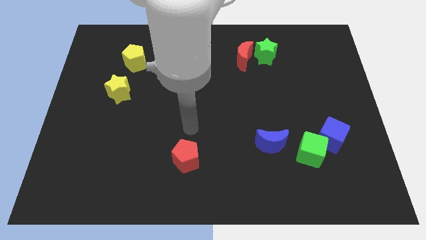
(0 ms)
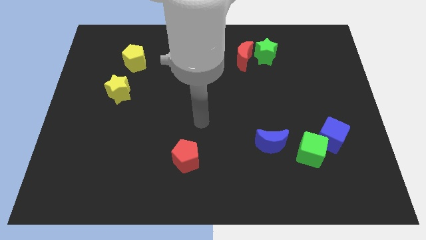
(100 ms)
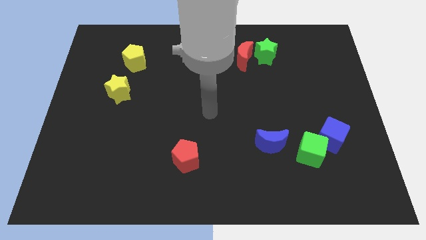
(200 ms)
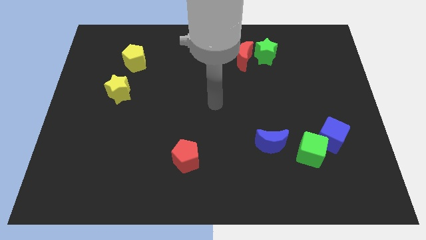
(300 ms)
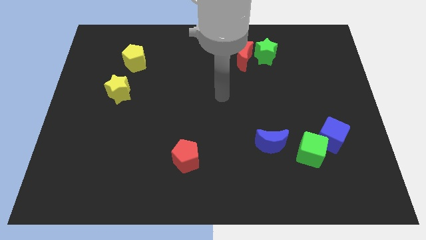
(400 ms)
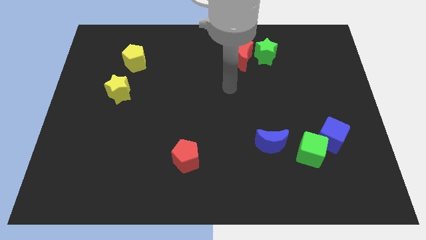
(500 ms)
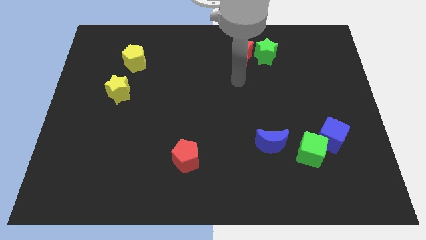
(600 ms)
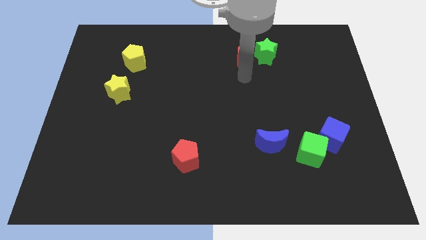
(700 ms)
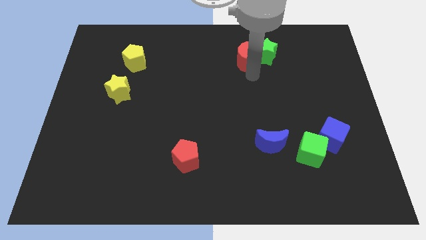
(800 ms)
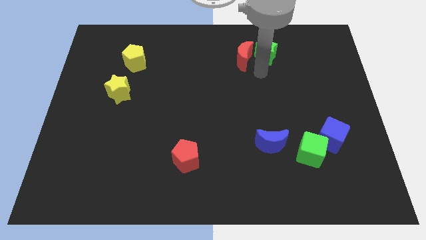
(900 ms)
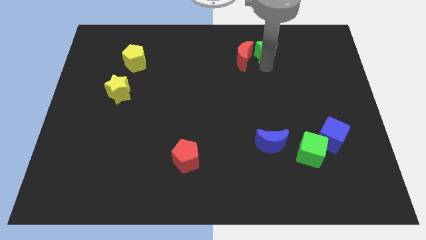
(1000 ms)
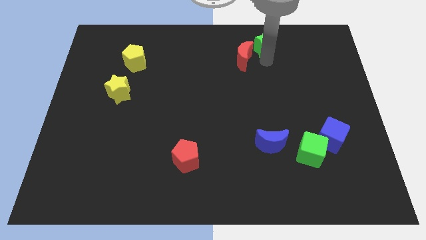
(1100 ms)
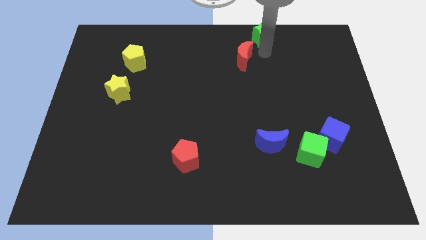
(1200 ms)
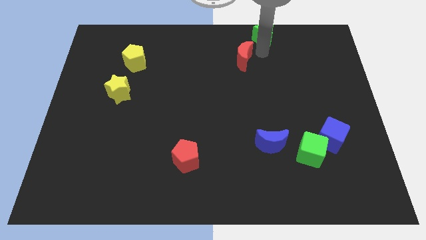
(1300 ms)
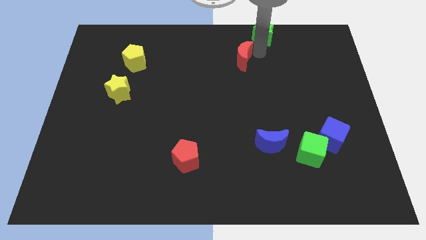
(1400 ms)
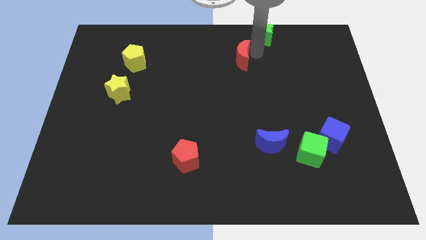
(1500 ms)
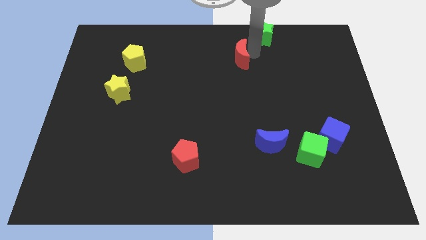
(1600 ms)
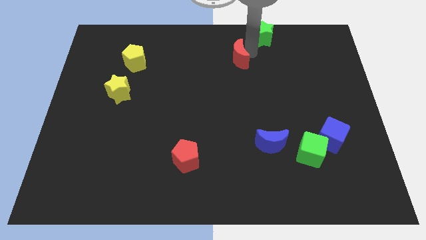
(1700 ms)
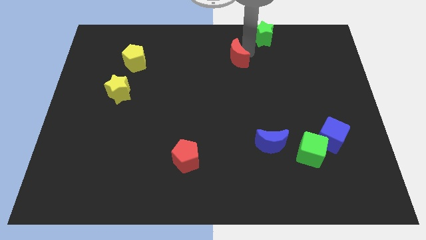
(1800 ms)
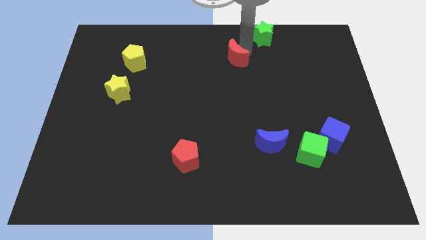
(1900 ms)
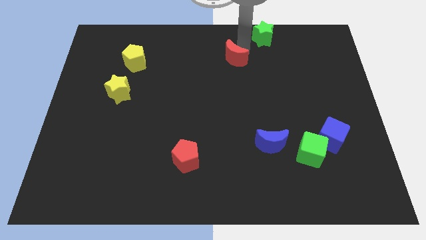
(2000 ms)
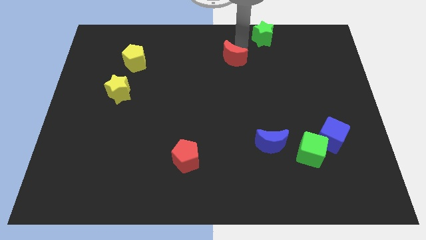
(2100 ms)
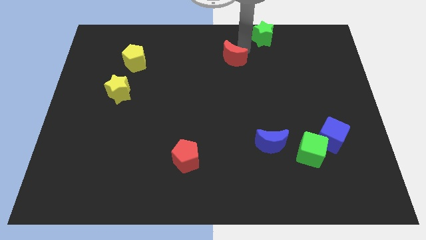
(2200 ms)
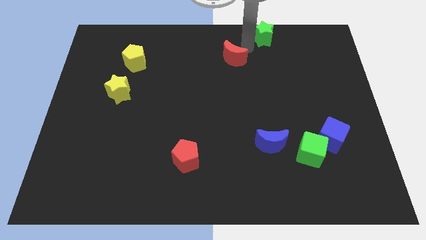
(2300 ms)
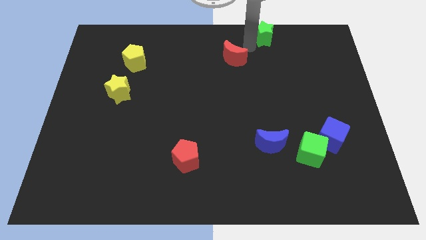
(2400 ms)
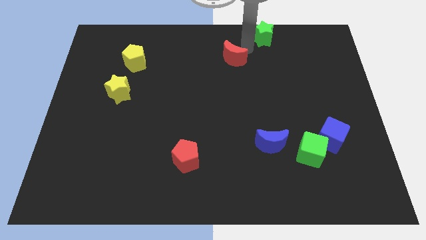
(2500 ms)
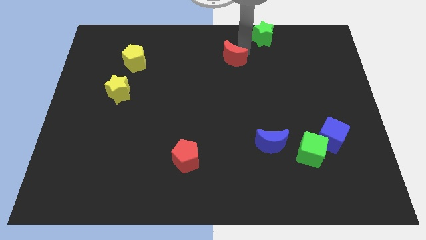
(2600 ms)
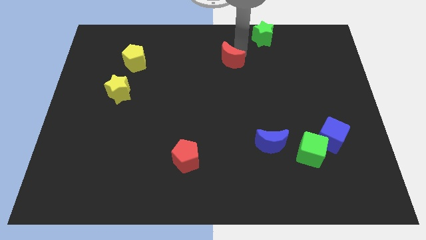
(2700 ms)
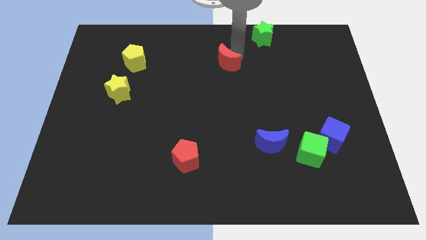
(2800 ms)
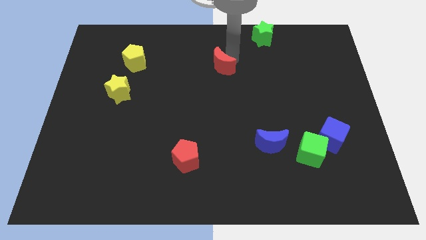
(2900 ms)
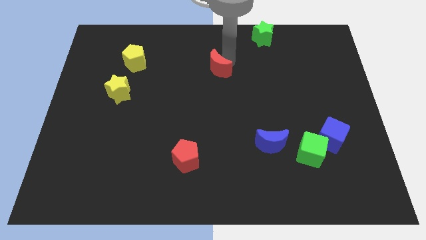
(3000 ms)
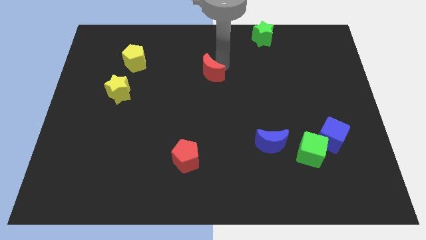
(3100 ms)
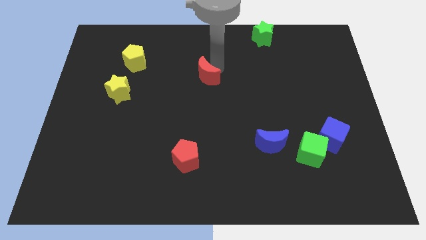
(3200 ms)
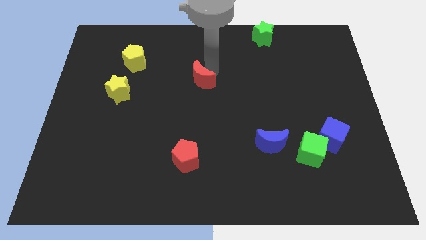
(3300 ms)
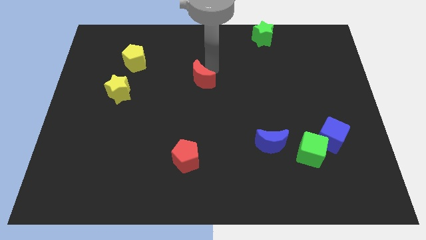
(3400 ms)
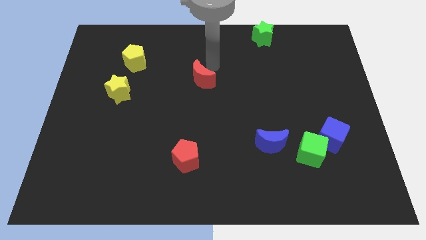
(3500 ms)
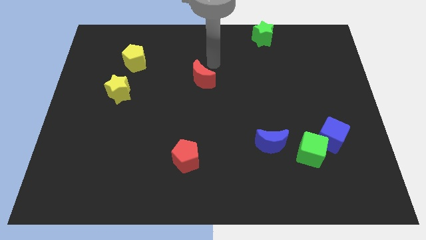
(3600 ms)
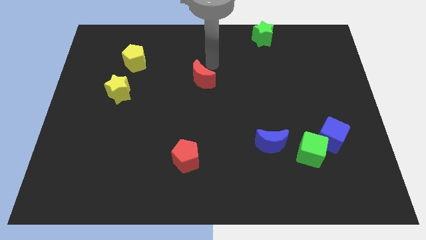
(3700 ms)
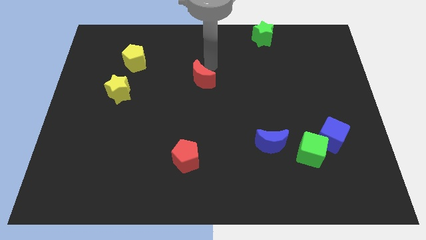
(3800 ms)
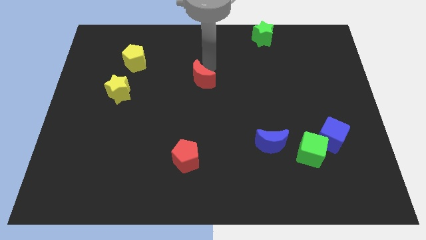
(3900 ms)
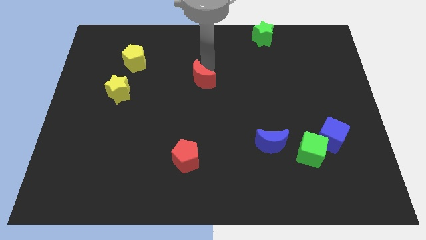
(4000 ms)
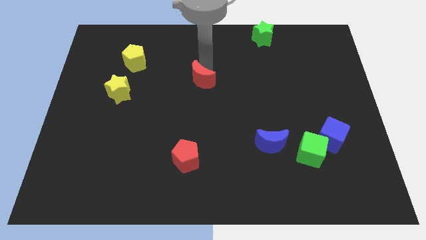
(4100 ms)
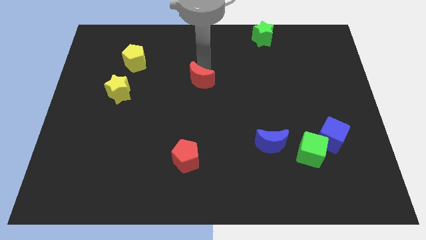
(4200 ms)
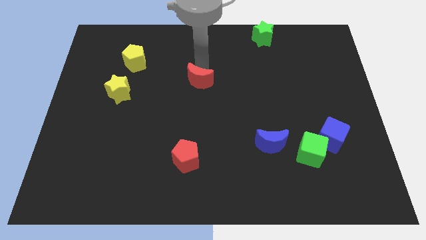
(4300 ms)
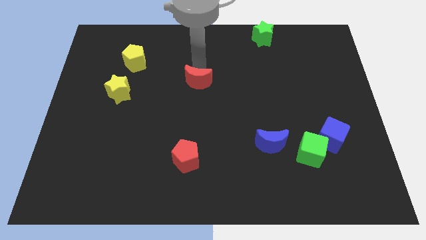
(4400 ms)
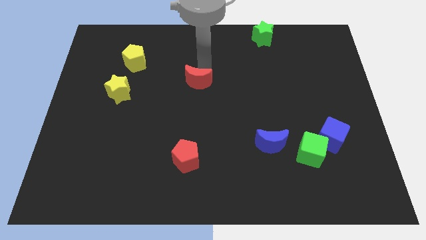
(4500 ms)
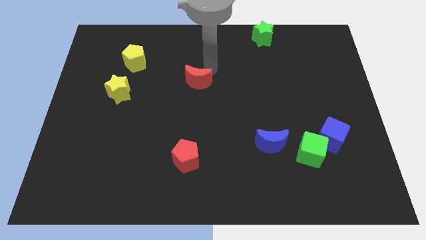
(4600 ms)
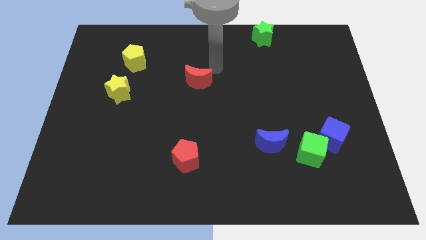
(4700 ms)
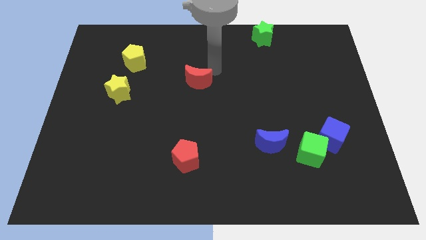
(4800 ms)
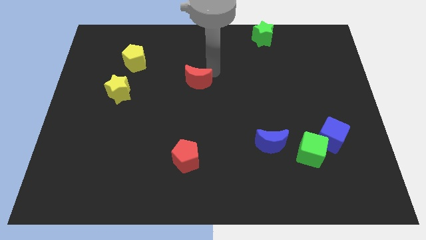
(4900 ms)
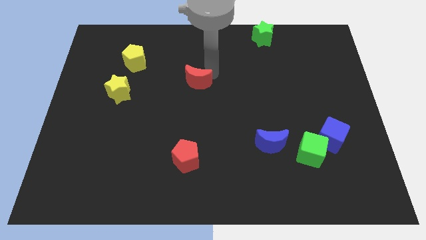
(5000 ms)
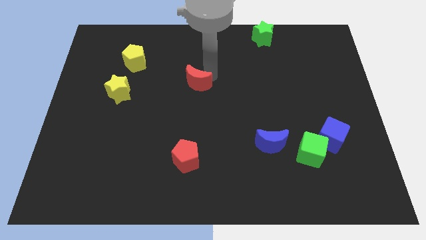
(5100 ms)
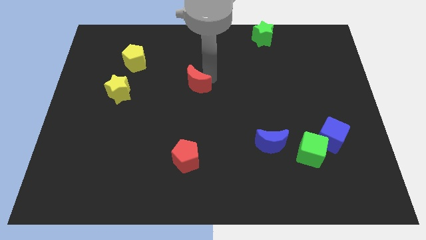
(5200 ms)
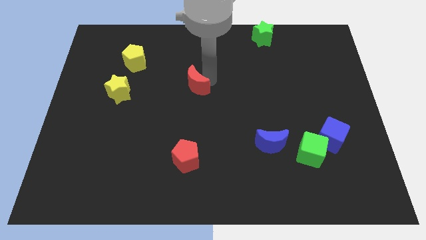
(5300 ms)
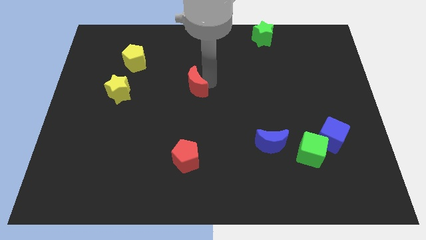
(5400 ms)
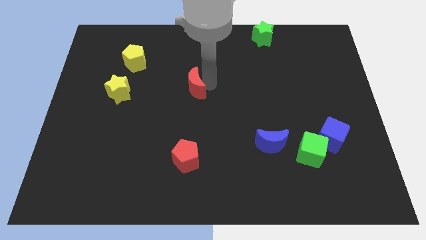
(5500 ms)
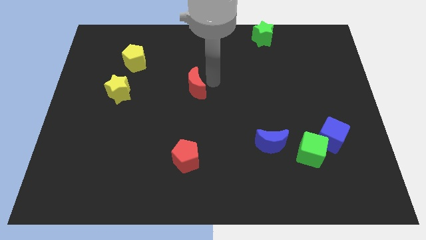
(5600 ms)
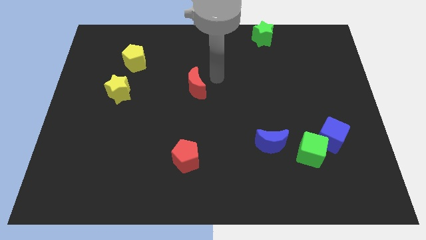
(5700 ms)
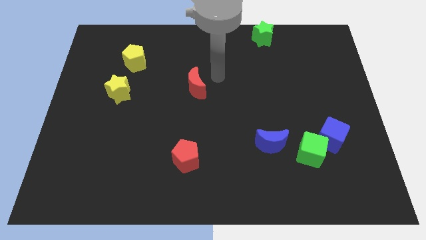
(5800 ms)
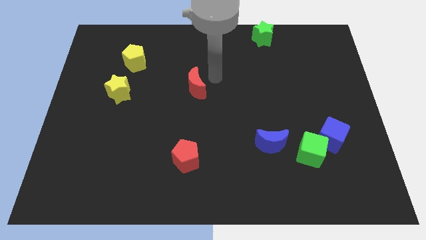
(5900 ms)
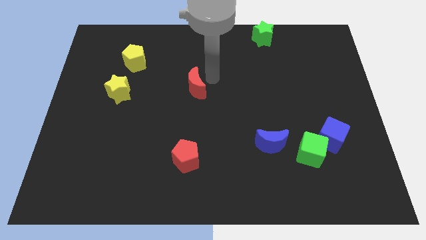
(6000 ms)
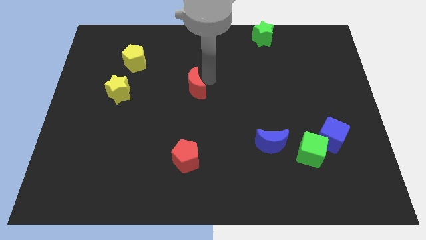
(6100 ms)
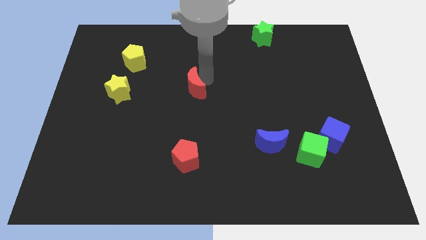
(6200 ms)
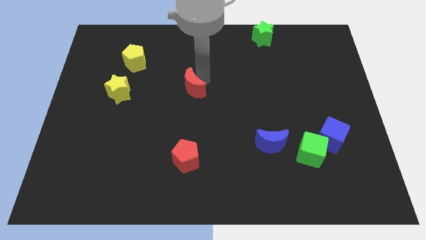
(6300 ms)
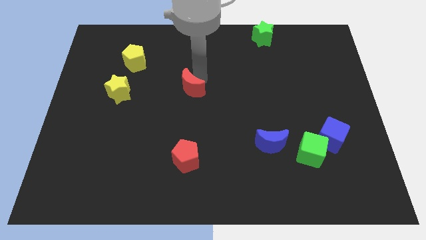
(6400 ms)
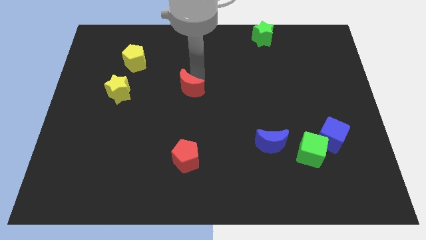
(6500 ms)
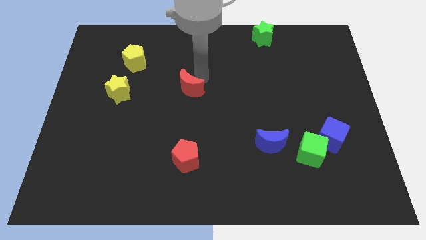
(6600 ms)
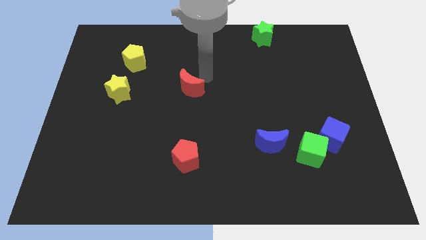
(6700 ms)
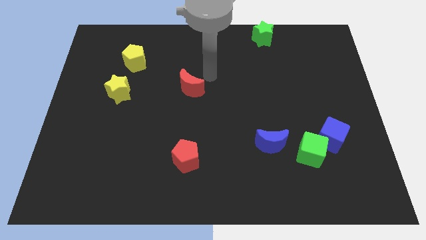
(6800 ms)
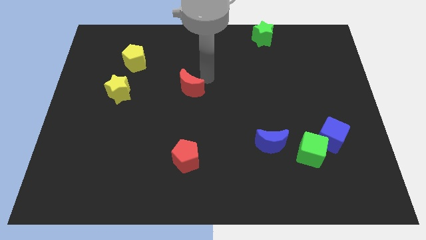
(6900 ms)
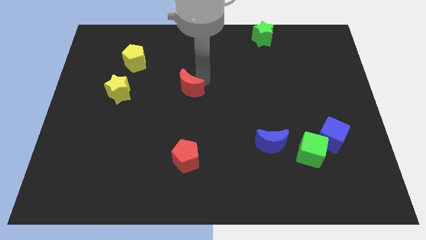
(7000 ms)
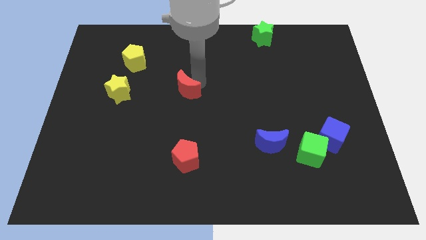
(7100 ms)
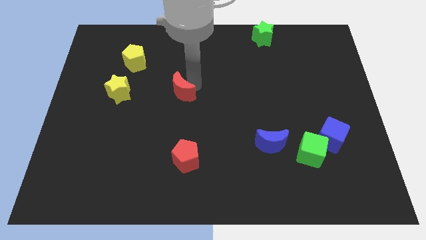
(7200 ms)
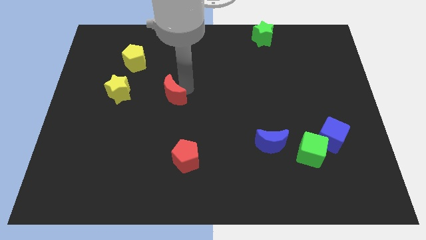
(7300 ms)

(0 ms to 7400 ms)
move the red moon down and then to the left

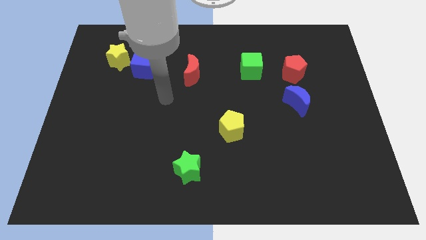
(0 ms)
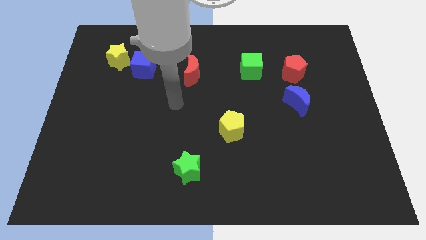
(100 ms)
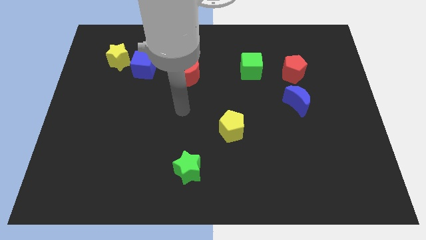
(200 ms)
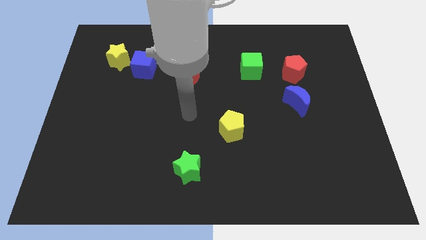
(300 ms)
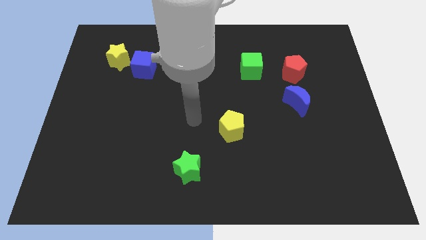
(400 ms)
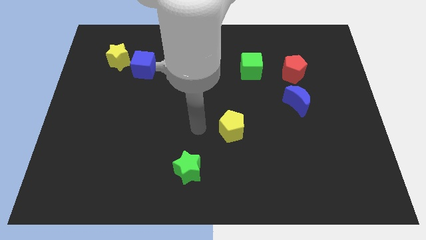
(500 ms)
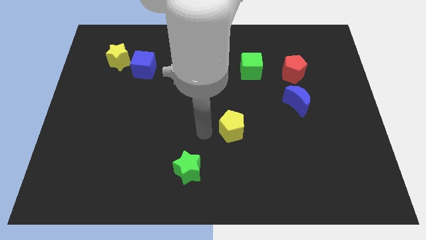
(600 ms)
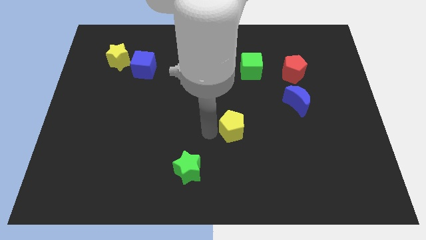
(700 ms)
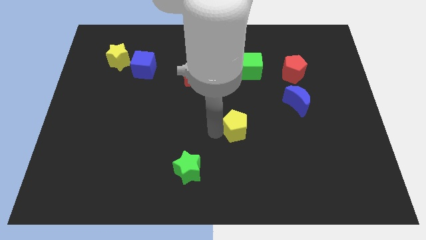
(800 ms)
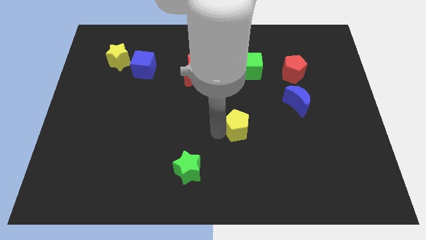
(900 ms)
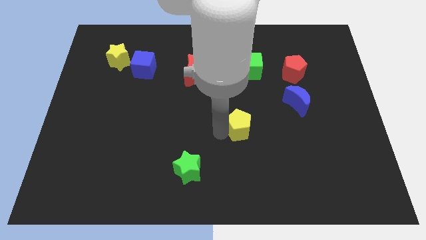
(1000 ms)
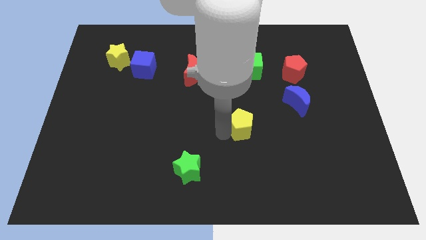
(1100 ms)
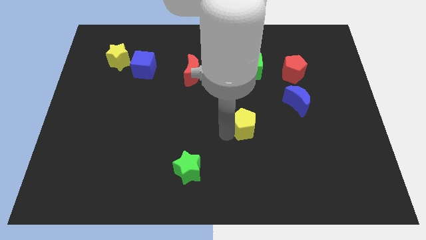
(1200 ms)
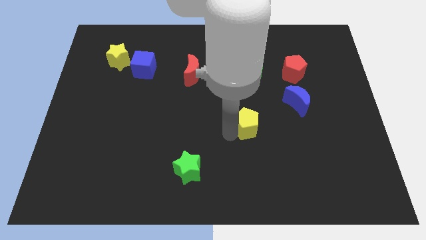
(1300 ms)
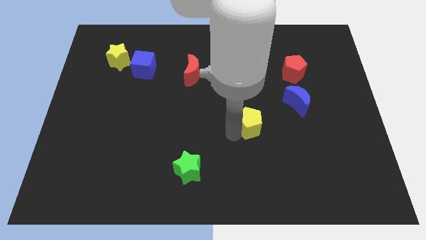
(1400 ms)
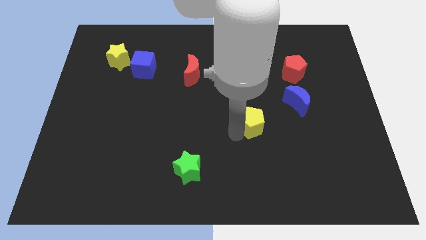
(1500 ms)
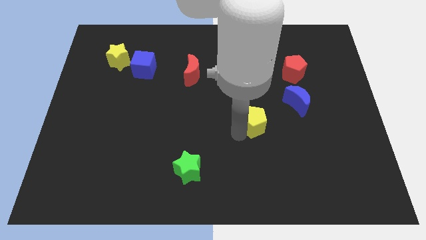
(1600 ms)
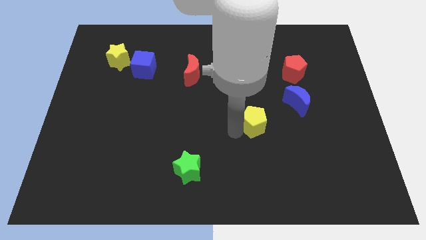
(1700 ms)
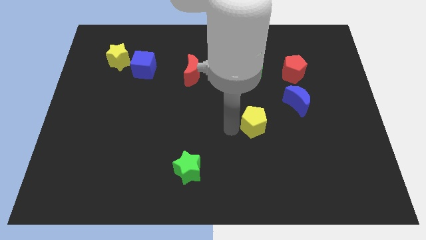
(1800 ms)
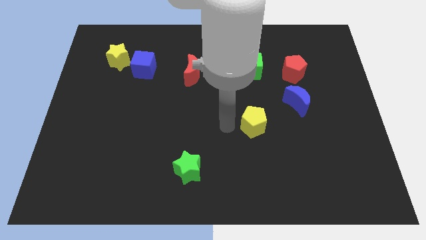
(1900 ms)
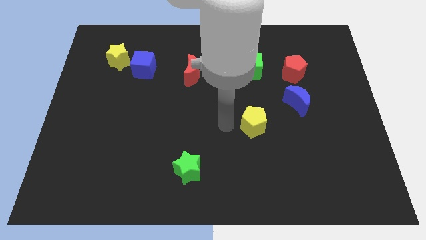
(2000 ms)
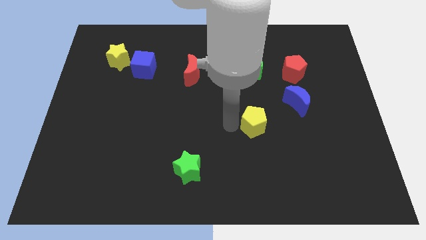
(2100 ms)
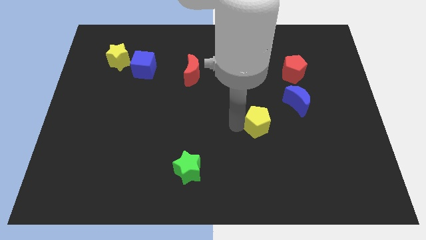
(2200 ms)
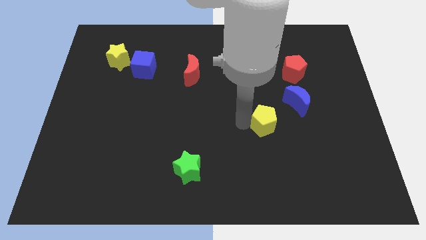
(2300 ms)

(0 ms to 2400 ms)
slightly push the yellow pentagon right
